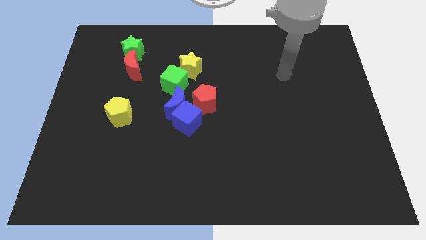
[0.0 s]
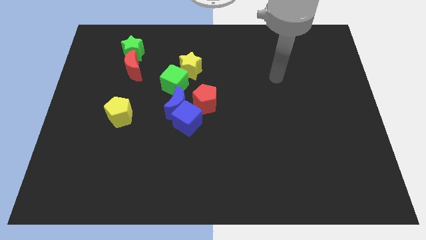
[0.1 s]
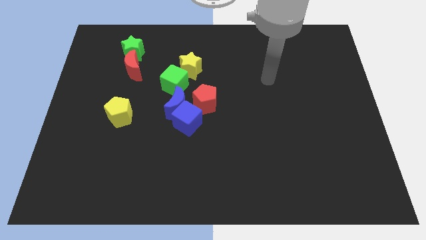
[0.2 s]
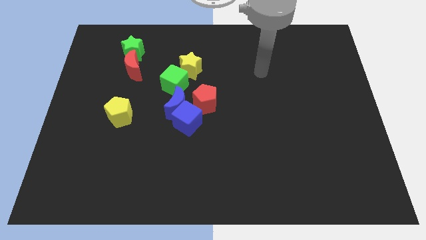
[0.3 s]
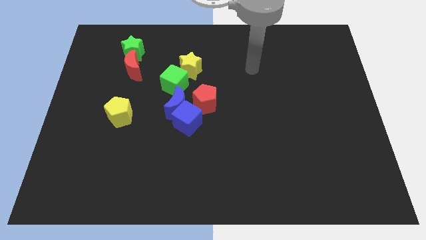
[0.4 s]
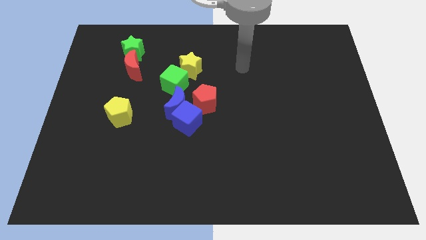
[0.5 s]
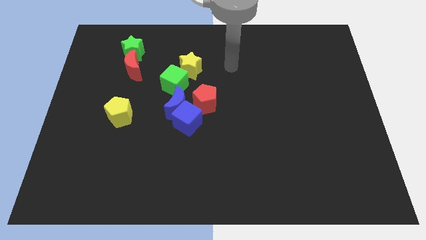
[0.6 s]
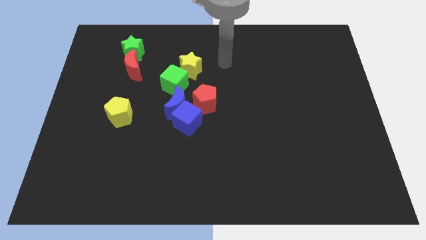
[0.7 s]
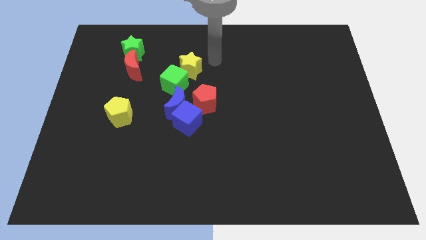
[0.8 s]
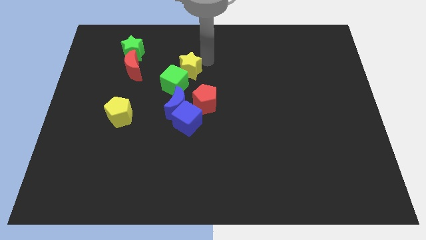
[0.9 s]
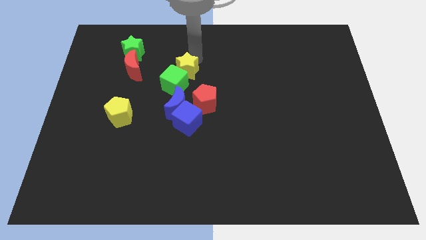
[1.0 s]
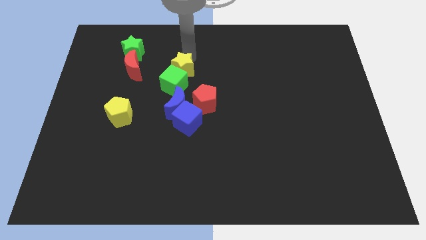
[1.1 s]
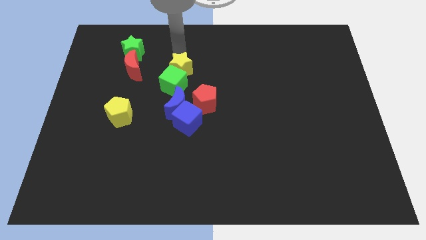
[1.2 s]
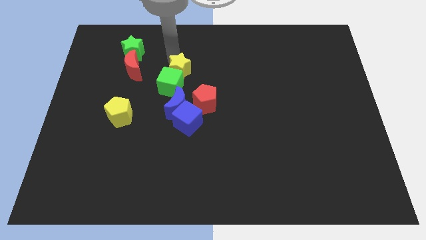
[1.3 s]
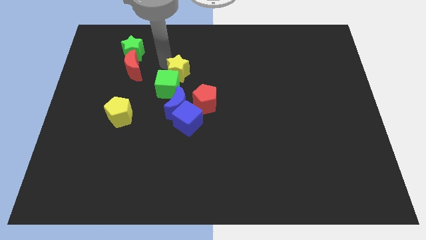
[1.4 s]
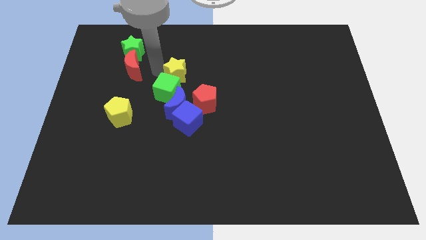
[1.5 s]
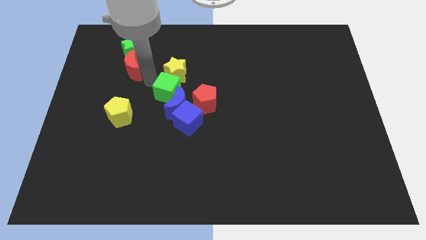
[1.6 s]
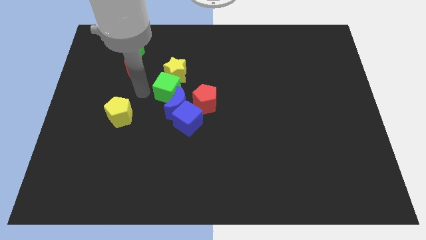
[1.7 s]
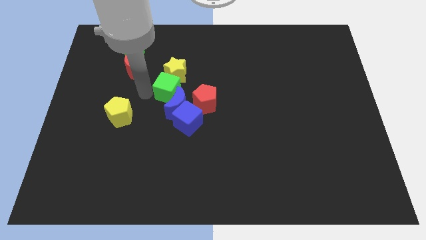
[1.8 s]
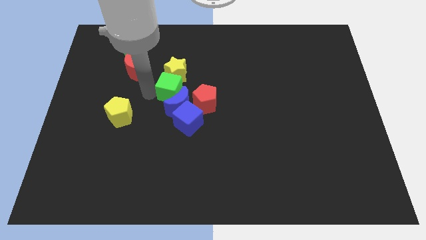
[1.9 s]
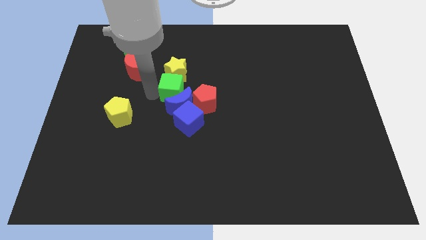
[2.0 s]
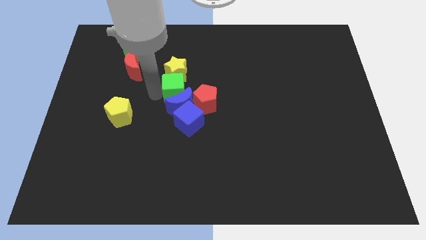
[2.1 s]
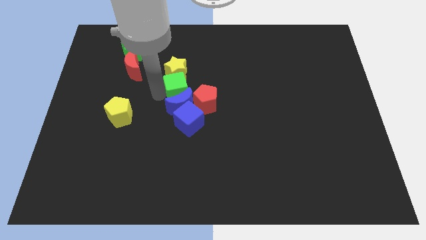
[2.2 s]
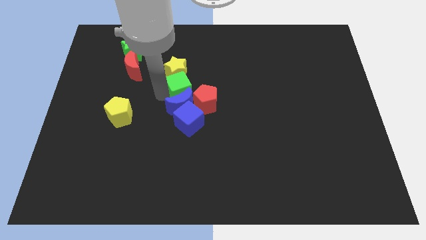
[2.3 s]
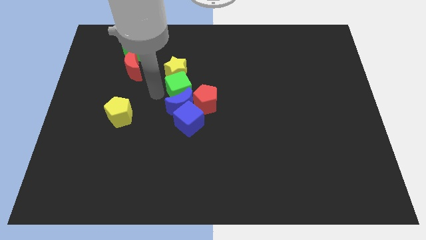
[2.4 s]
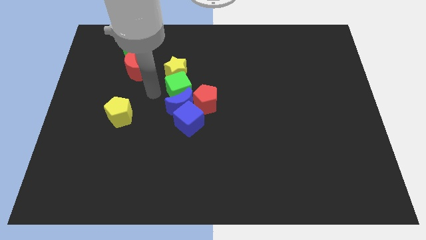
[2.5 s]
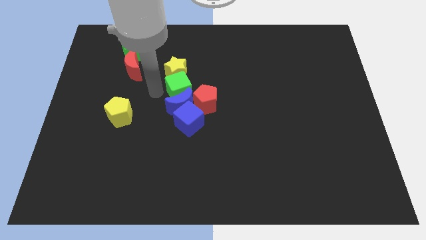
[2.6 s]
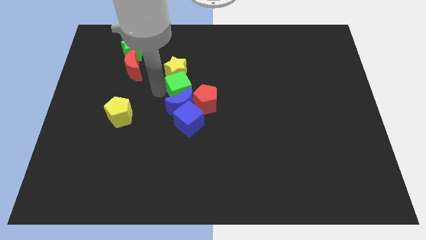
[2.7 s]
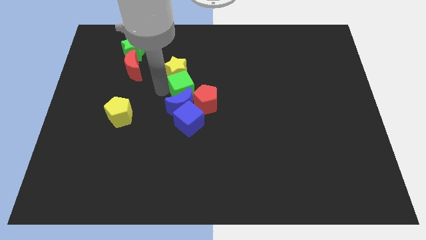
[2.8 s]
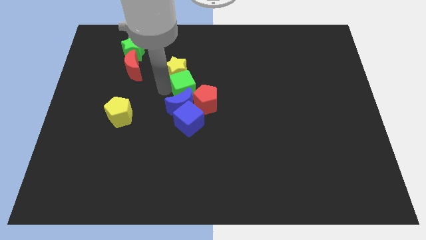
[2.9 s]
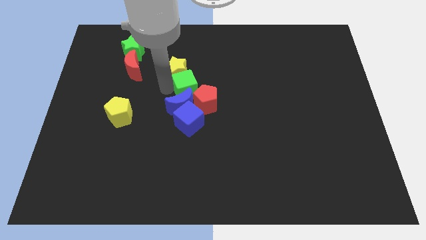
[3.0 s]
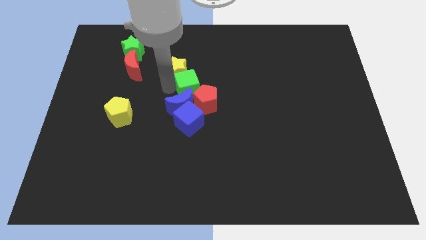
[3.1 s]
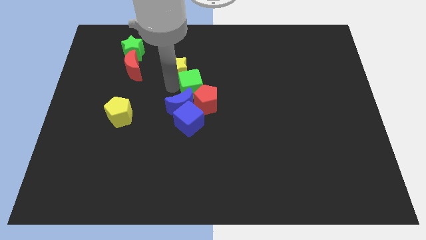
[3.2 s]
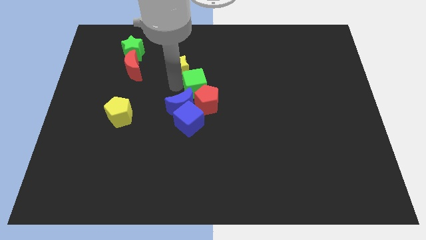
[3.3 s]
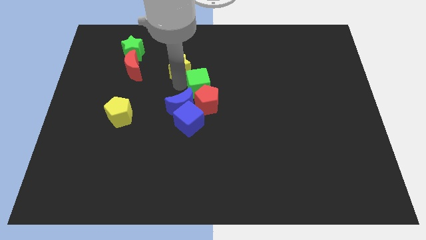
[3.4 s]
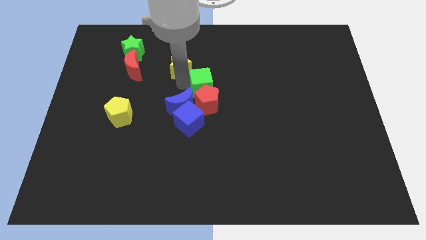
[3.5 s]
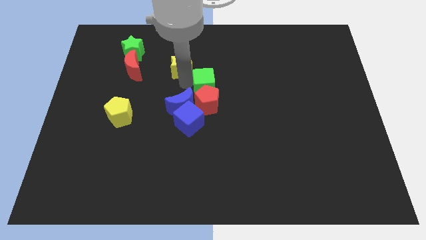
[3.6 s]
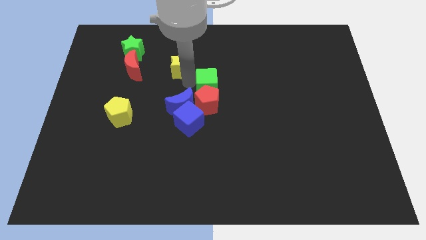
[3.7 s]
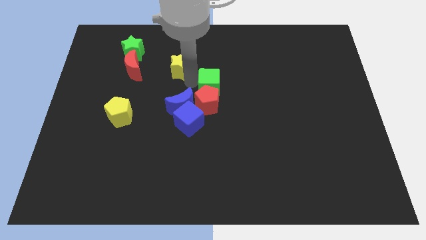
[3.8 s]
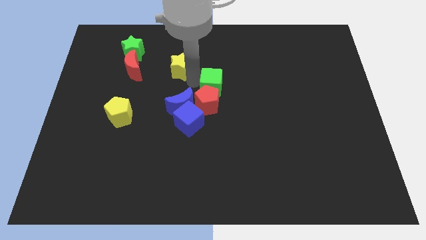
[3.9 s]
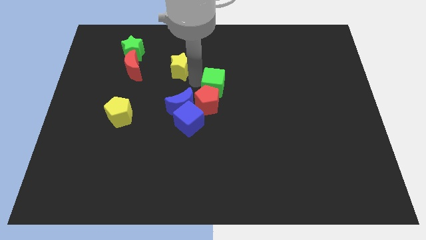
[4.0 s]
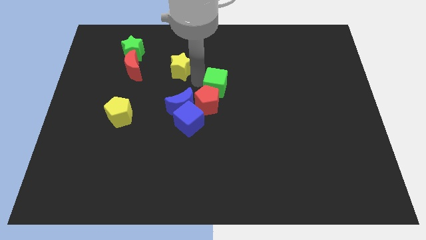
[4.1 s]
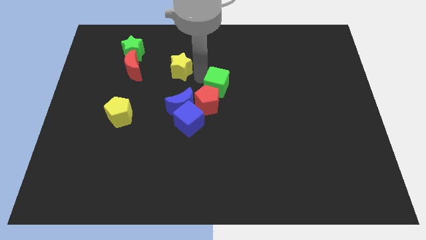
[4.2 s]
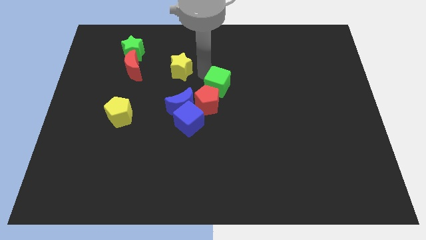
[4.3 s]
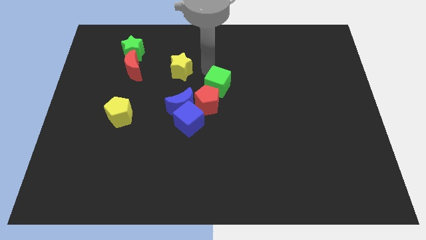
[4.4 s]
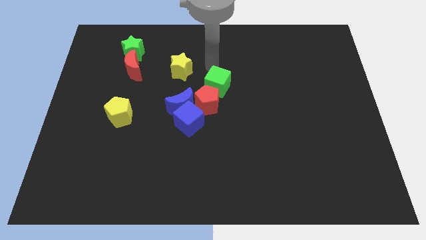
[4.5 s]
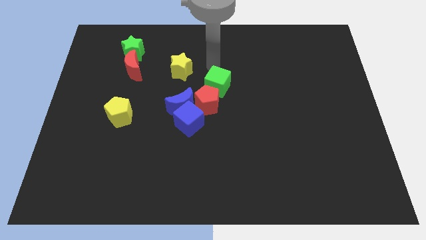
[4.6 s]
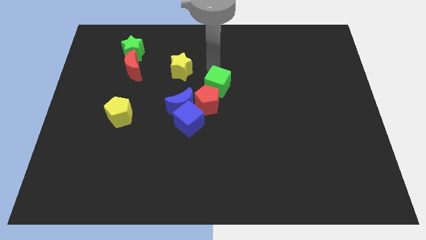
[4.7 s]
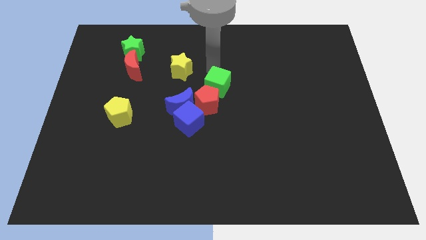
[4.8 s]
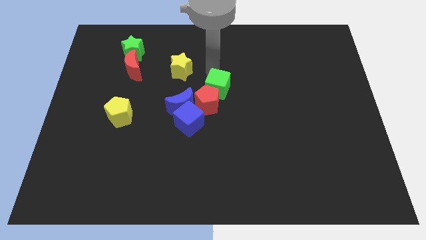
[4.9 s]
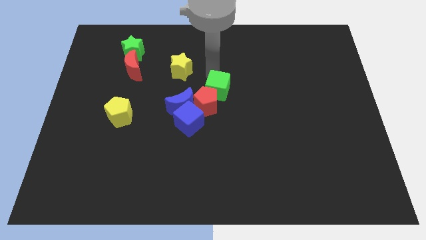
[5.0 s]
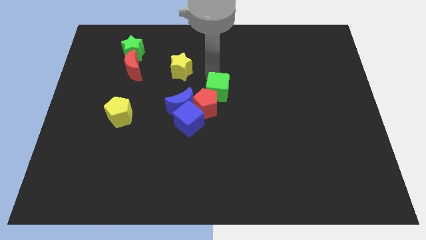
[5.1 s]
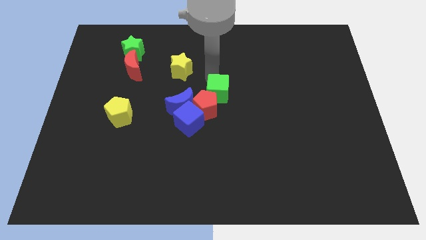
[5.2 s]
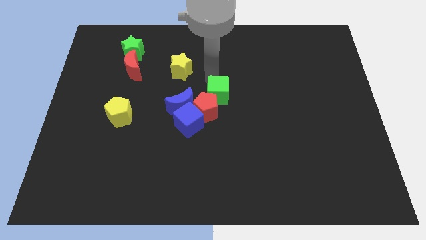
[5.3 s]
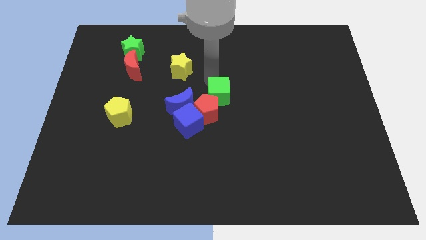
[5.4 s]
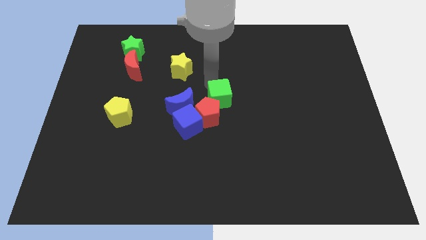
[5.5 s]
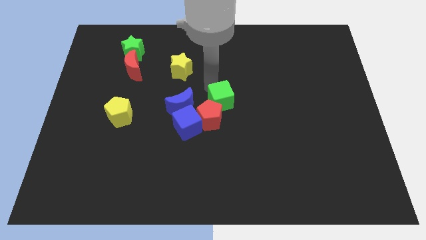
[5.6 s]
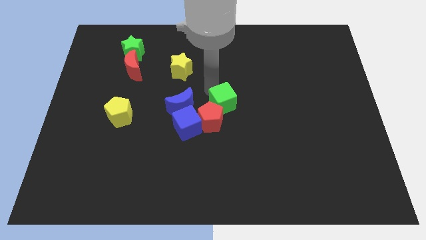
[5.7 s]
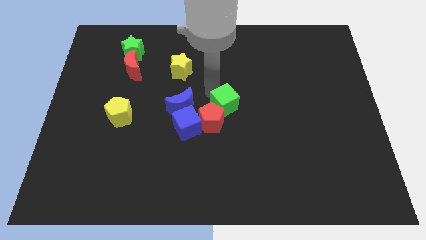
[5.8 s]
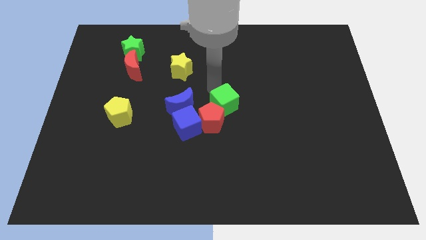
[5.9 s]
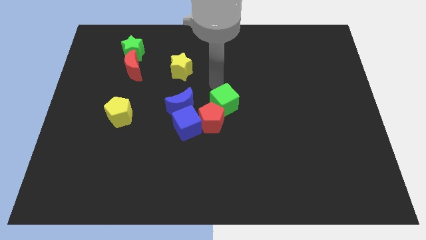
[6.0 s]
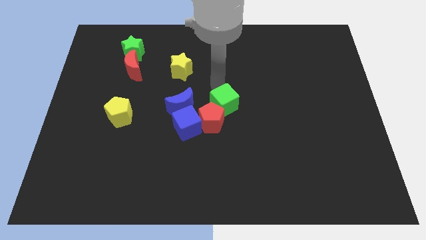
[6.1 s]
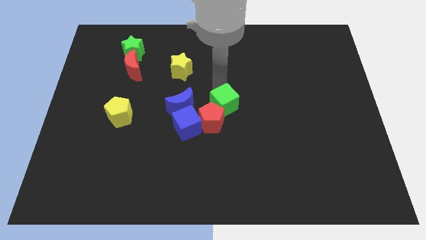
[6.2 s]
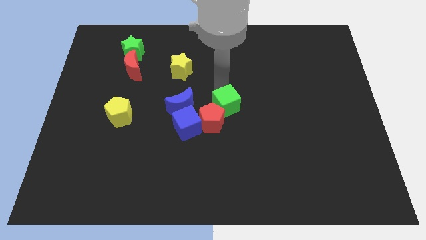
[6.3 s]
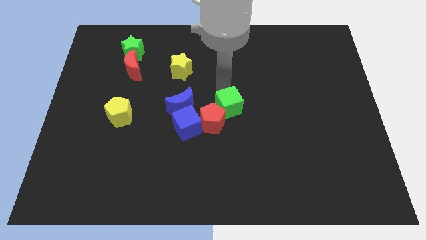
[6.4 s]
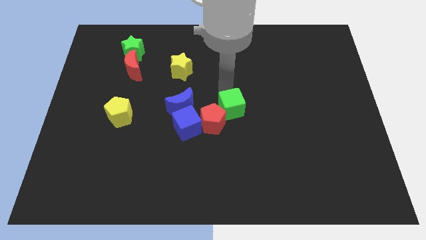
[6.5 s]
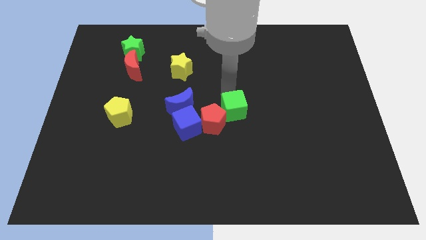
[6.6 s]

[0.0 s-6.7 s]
push the green cube to the right side of the blue cube

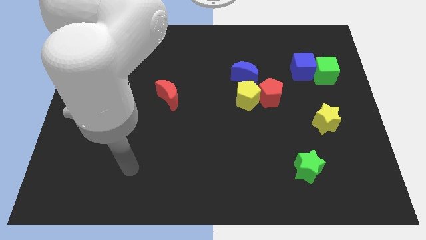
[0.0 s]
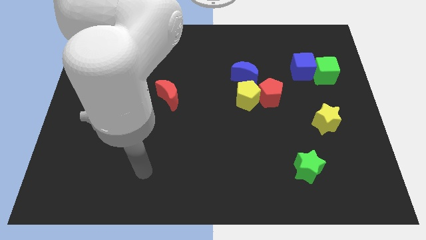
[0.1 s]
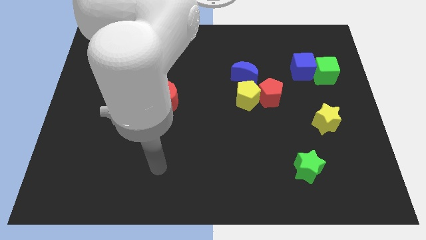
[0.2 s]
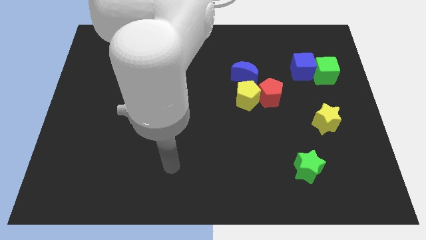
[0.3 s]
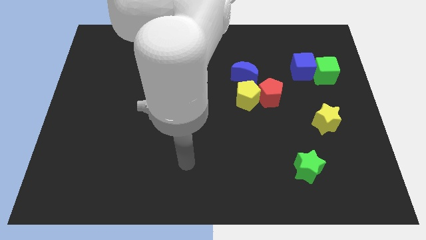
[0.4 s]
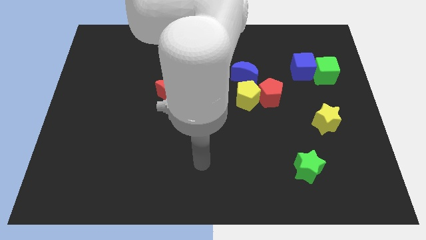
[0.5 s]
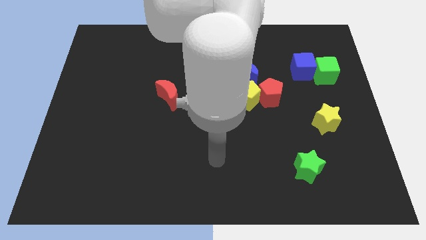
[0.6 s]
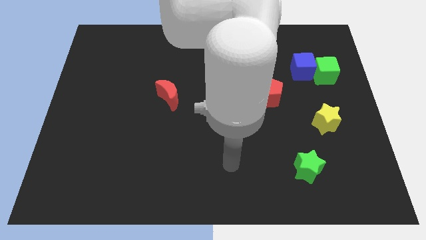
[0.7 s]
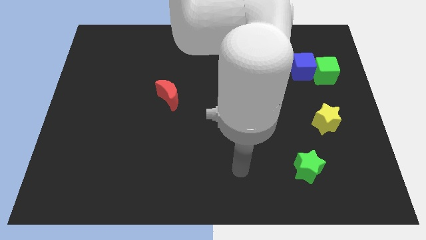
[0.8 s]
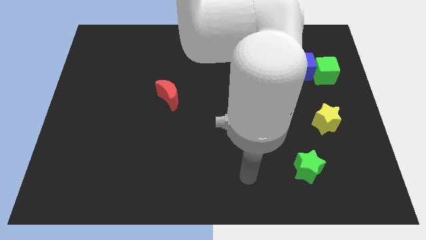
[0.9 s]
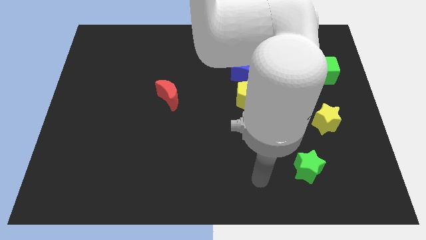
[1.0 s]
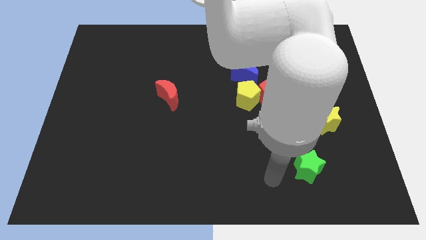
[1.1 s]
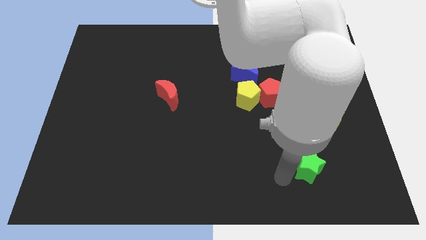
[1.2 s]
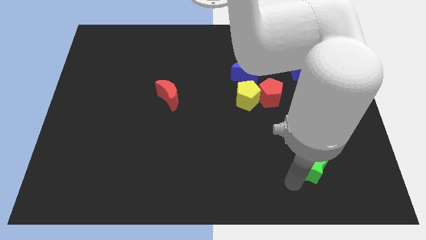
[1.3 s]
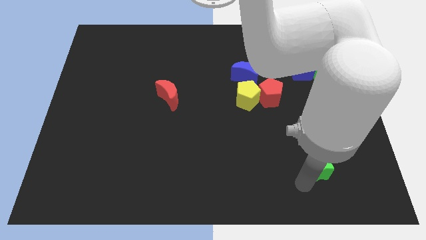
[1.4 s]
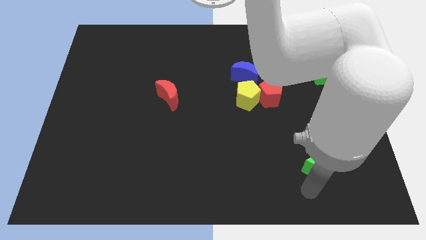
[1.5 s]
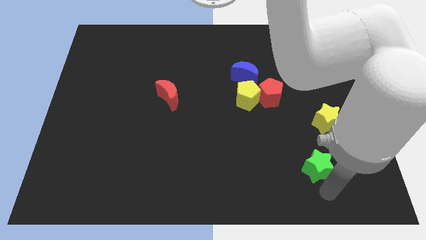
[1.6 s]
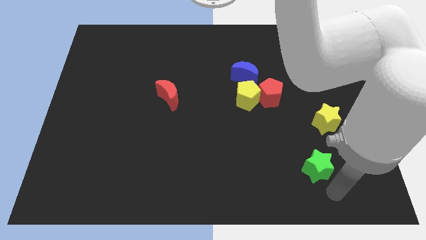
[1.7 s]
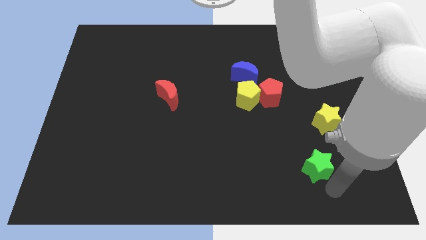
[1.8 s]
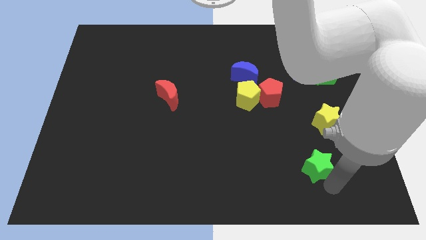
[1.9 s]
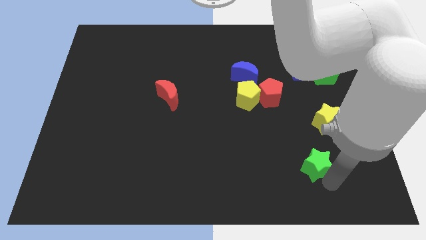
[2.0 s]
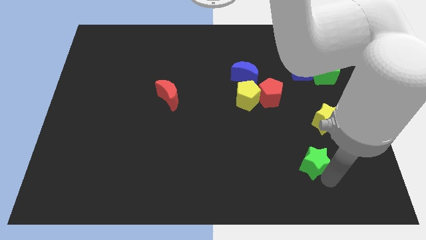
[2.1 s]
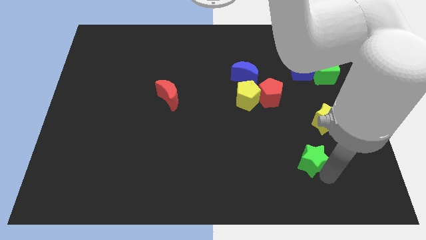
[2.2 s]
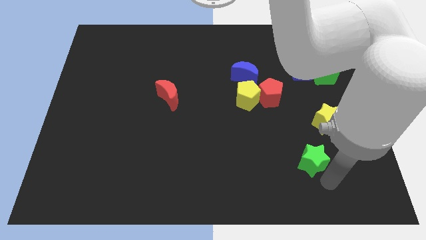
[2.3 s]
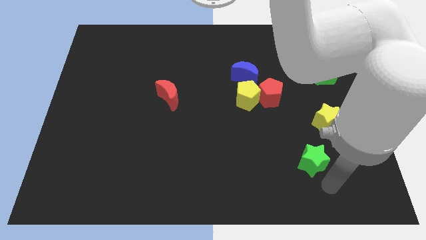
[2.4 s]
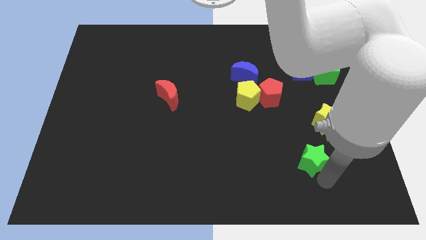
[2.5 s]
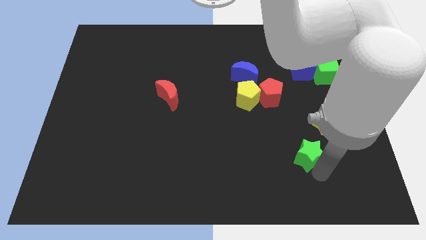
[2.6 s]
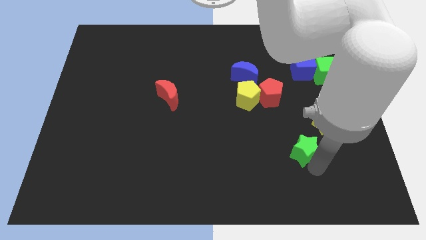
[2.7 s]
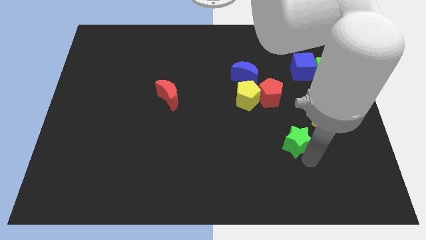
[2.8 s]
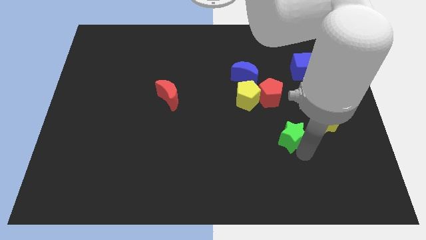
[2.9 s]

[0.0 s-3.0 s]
slide the green star to the left side of the yellow star
